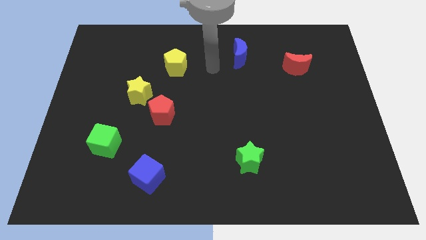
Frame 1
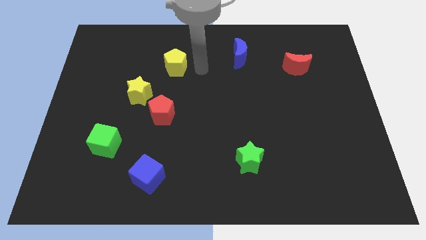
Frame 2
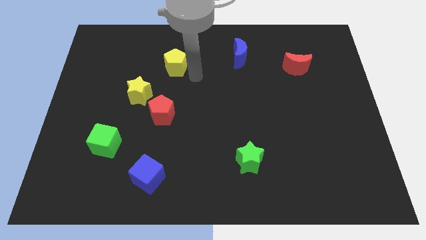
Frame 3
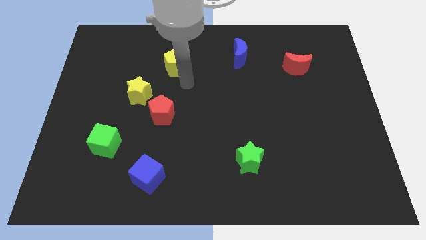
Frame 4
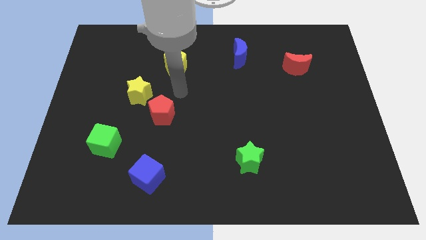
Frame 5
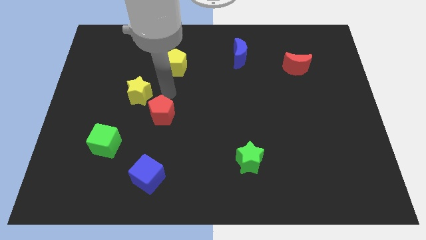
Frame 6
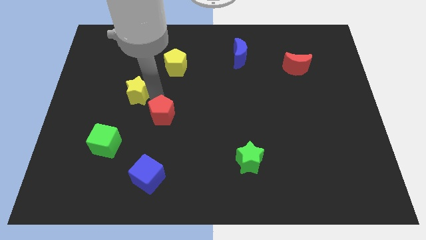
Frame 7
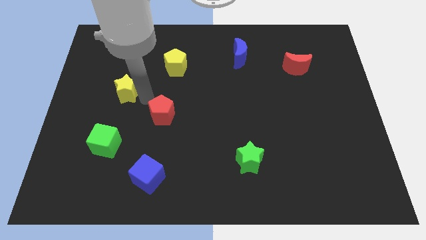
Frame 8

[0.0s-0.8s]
pull the red pentagon apart from the yellow star

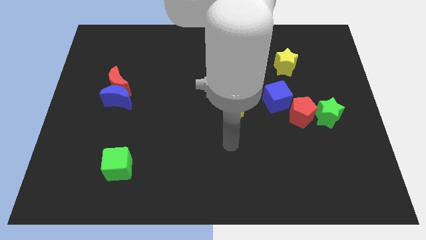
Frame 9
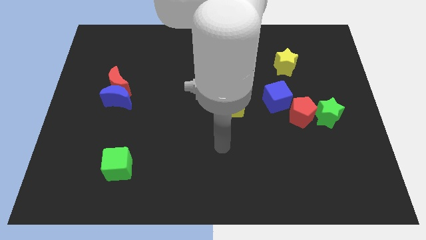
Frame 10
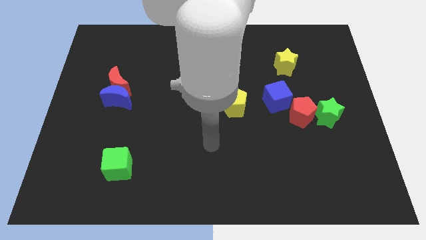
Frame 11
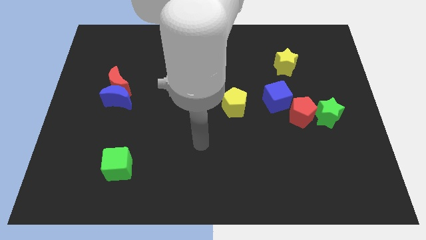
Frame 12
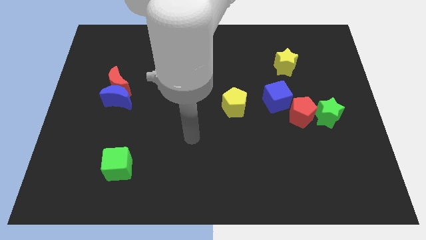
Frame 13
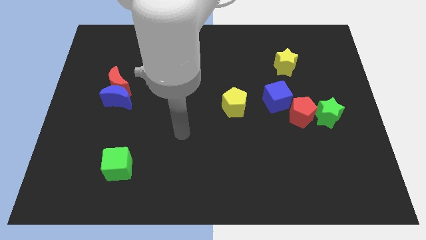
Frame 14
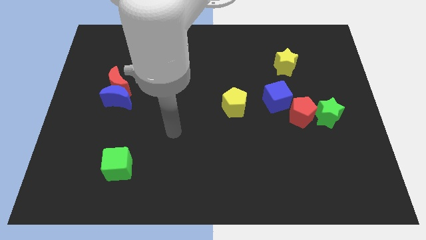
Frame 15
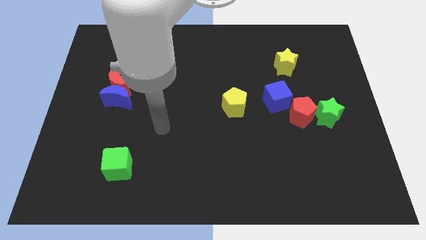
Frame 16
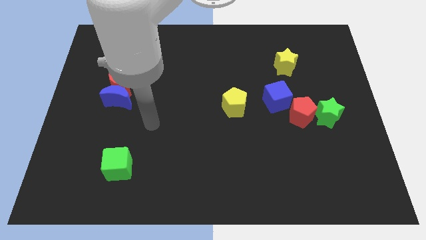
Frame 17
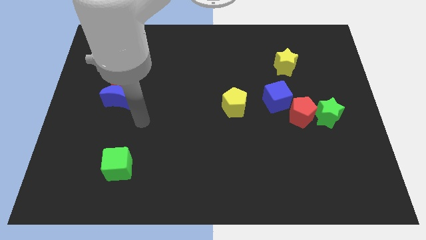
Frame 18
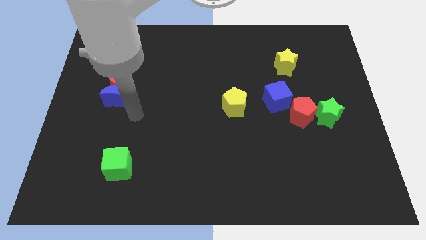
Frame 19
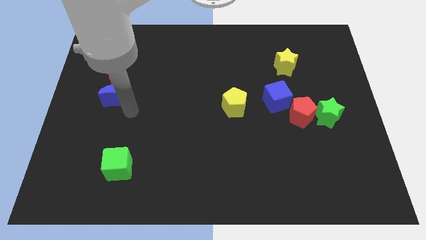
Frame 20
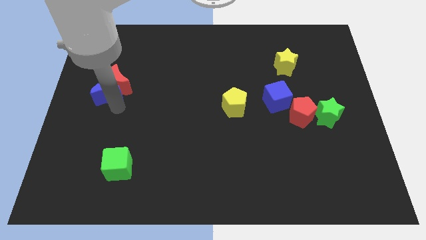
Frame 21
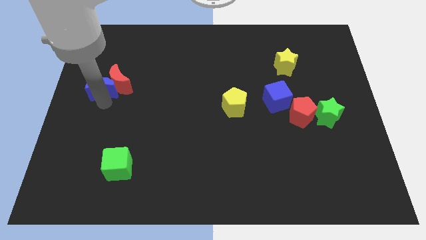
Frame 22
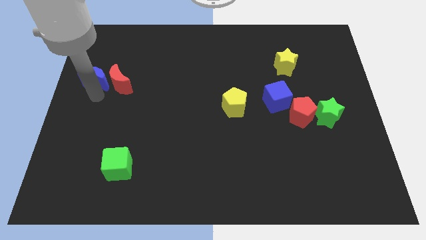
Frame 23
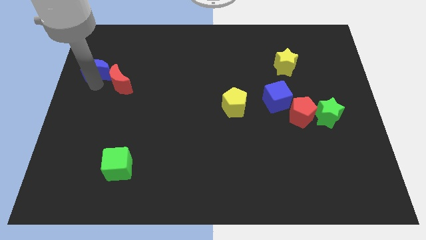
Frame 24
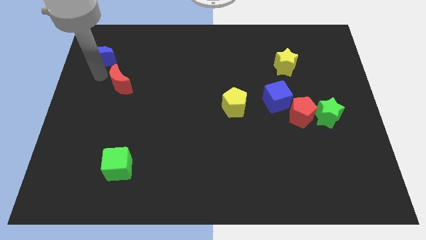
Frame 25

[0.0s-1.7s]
move the red moon away from the blue moon

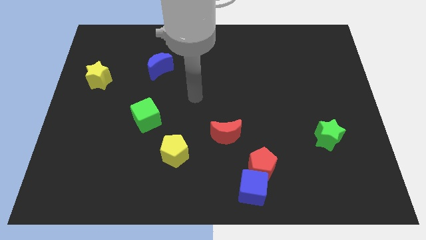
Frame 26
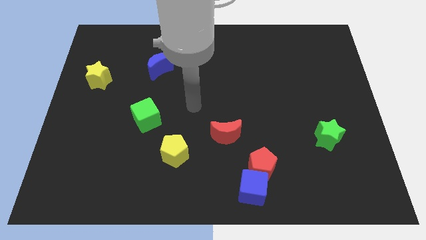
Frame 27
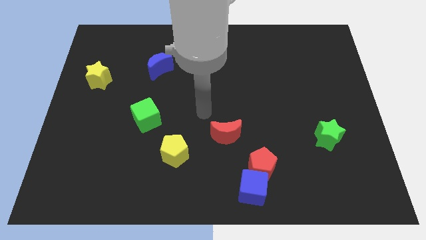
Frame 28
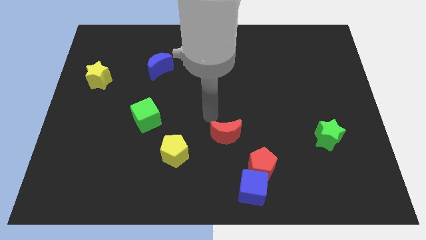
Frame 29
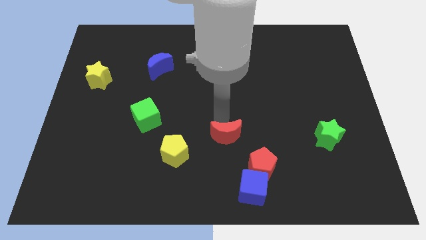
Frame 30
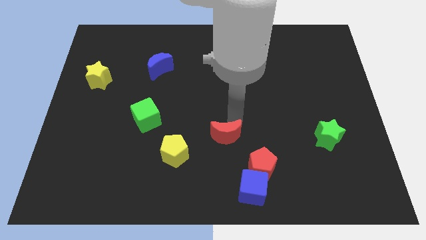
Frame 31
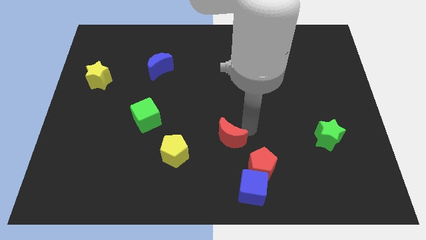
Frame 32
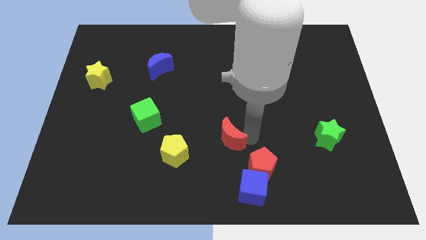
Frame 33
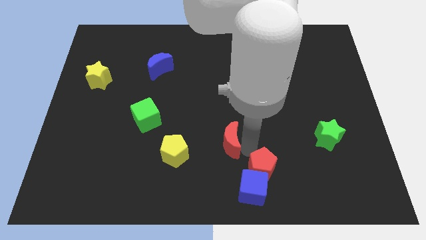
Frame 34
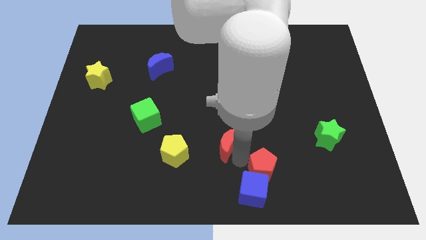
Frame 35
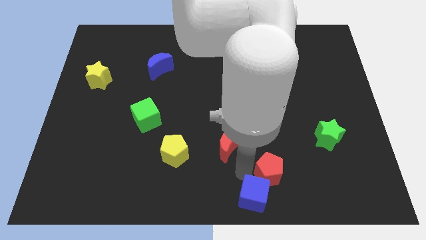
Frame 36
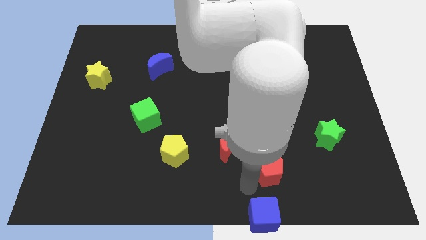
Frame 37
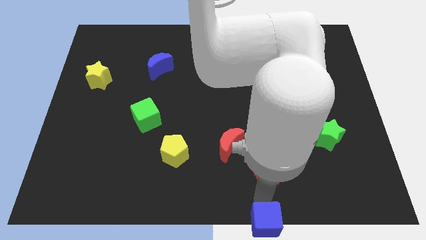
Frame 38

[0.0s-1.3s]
separate the red pentagon from the blue cube

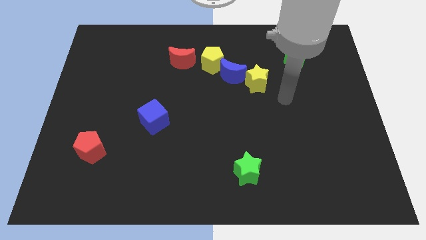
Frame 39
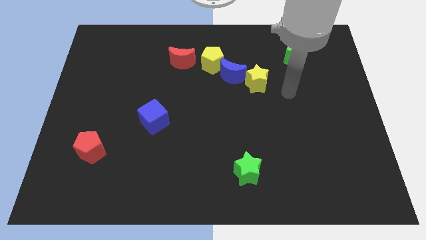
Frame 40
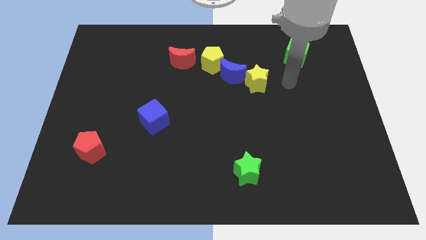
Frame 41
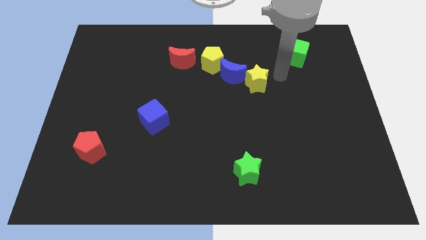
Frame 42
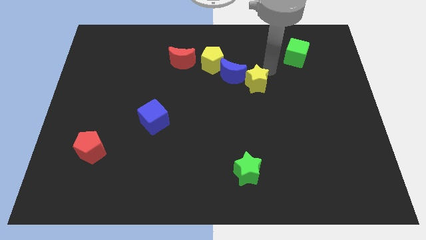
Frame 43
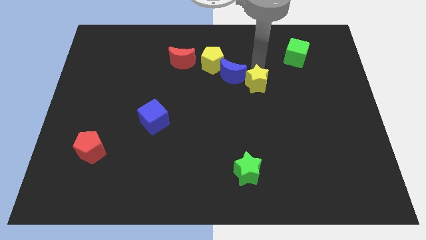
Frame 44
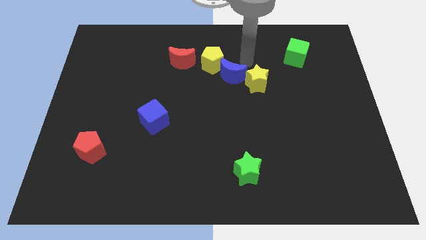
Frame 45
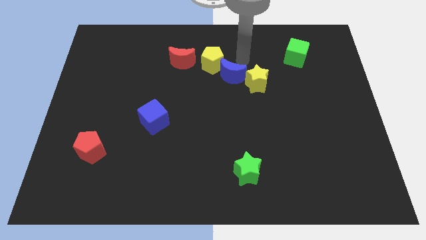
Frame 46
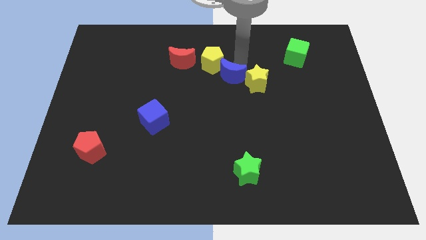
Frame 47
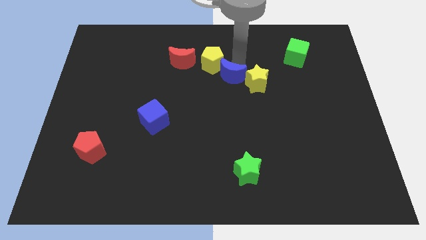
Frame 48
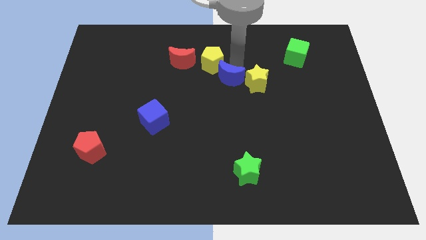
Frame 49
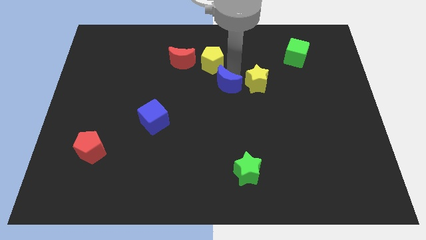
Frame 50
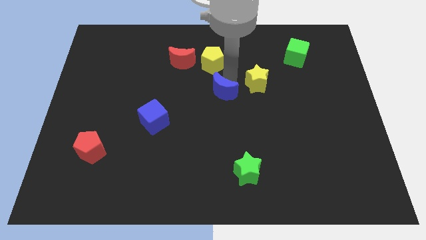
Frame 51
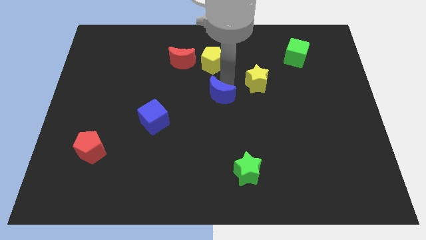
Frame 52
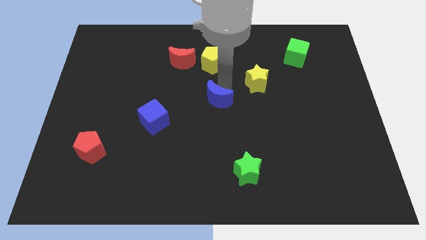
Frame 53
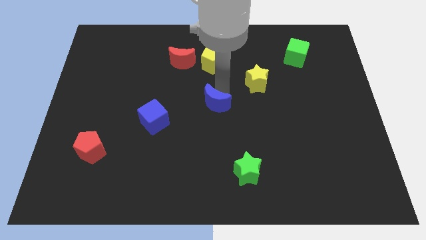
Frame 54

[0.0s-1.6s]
move the blue moon away from the yellow pentagon and yellow star

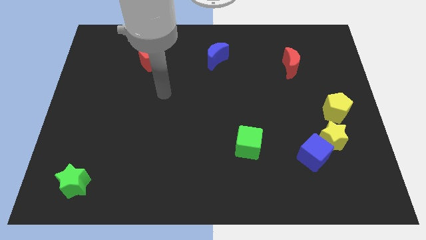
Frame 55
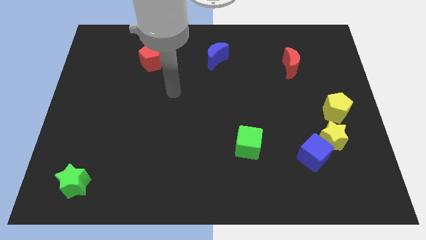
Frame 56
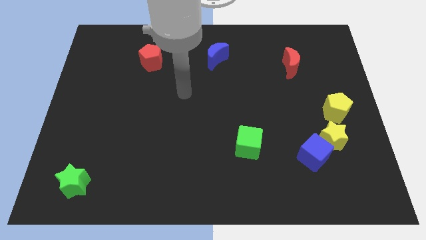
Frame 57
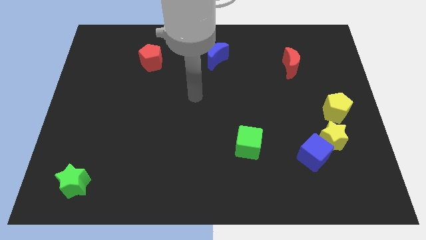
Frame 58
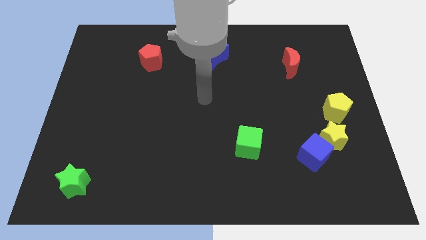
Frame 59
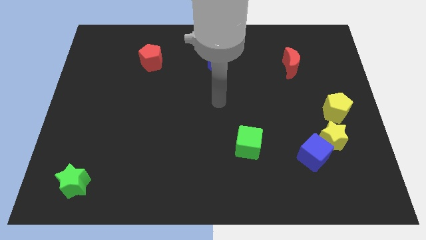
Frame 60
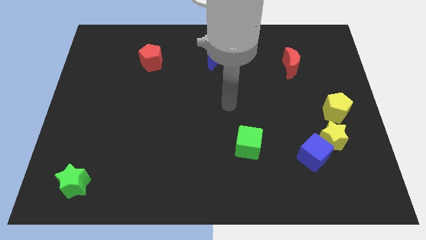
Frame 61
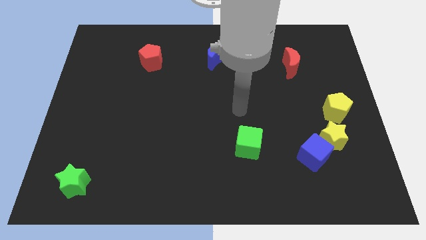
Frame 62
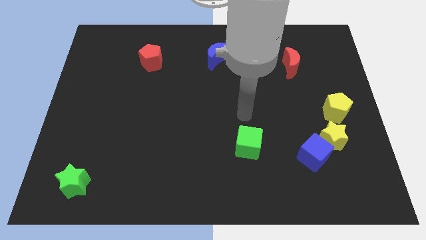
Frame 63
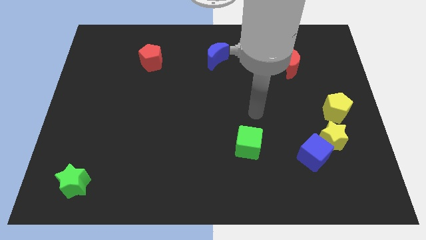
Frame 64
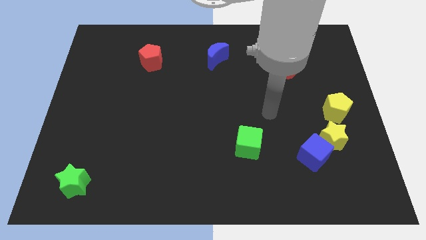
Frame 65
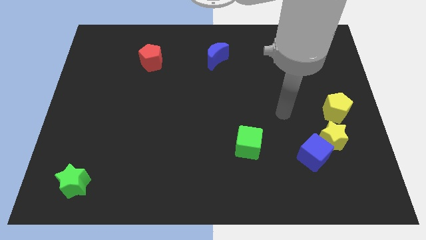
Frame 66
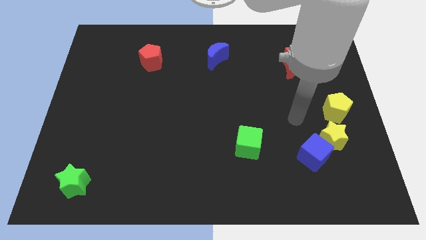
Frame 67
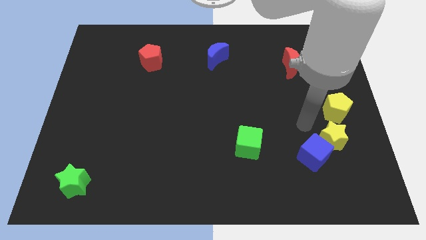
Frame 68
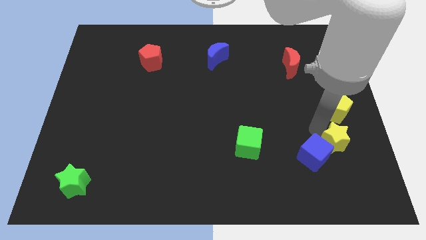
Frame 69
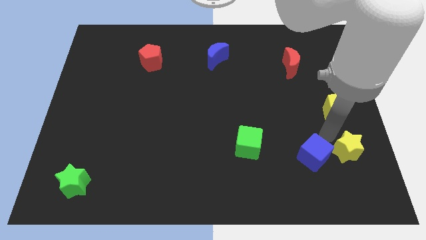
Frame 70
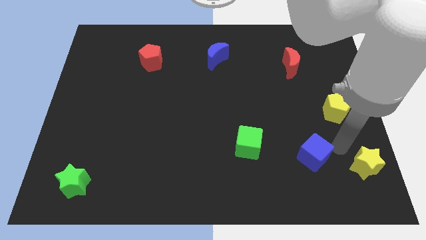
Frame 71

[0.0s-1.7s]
pull the blue cube apart from the yellow star

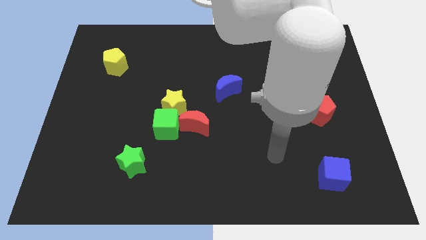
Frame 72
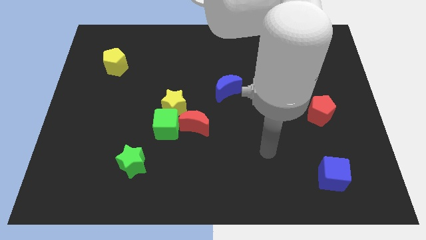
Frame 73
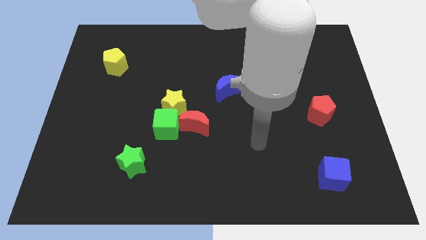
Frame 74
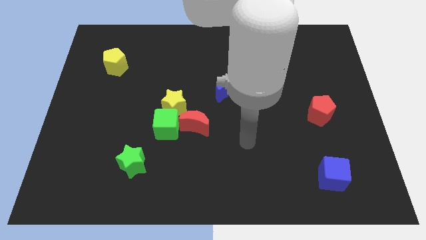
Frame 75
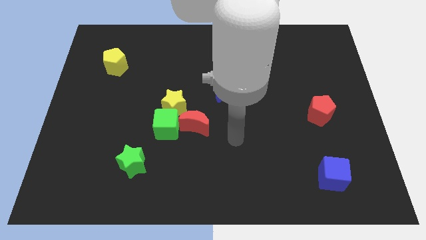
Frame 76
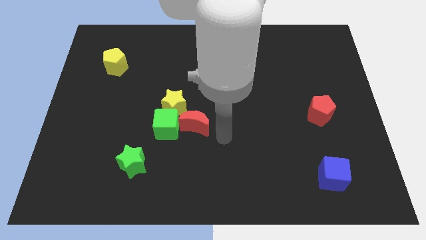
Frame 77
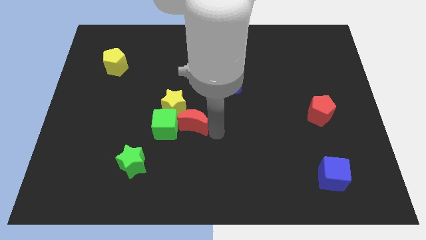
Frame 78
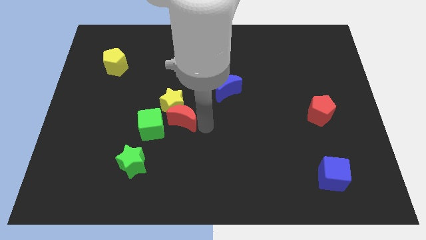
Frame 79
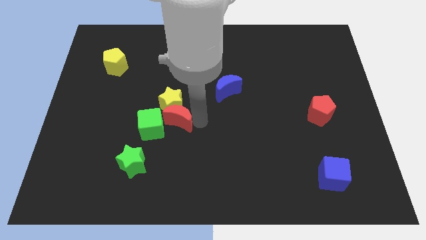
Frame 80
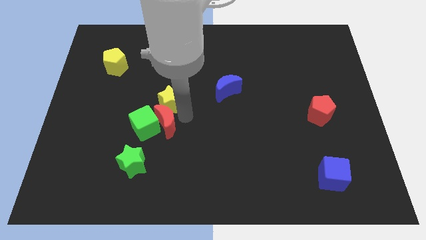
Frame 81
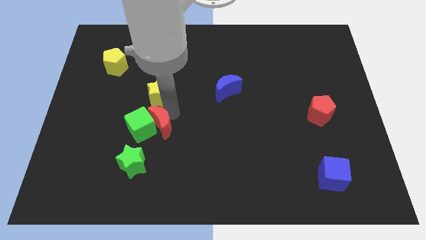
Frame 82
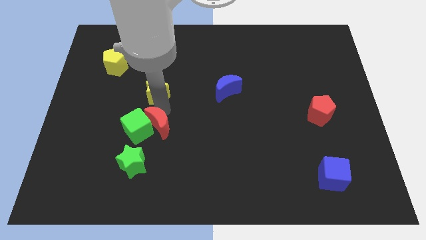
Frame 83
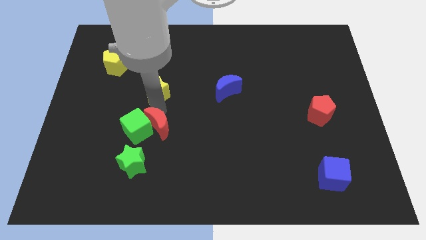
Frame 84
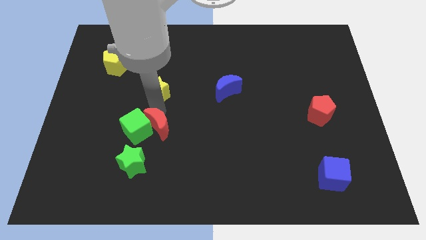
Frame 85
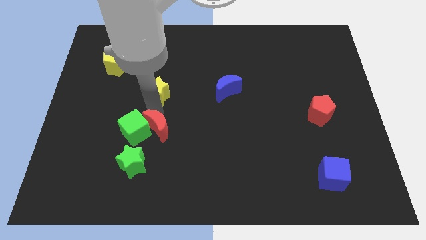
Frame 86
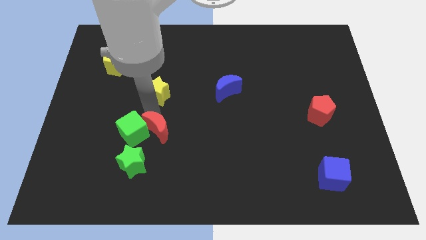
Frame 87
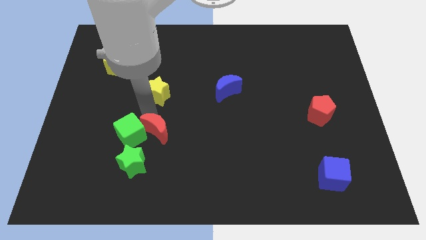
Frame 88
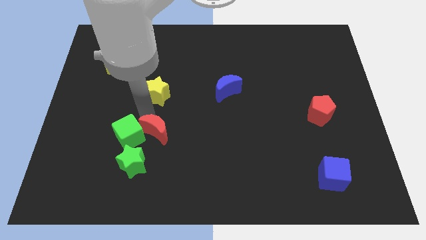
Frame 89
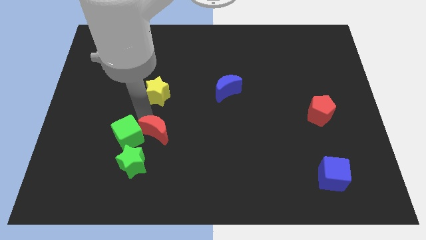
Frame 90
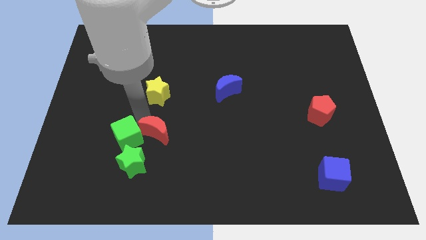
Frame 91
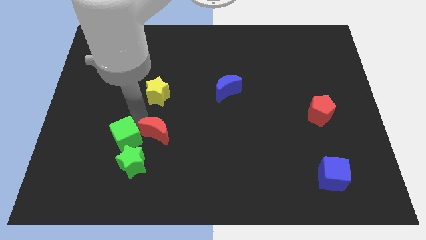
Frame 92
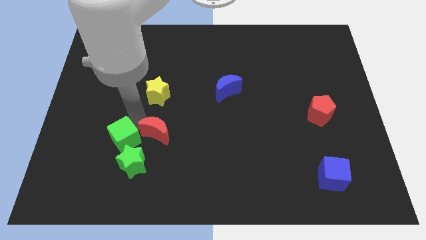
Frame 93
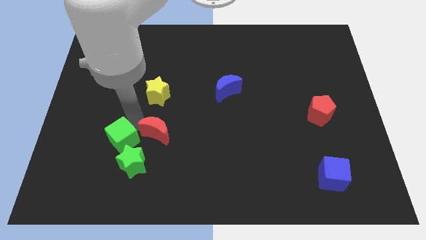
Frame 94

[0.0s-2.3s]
pull the green cube apart from the yellow star and red moon
